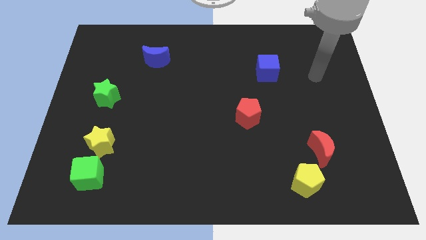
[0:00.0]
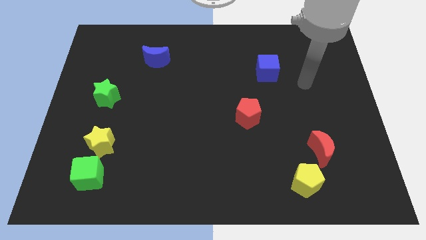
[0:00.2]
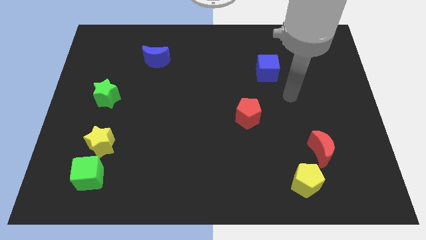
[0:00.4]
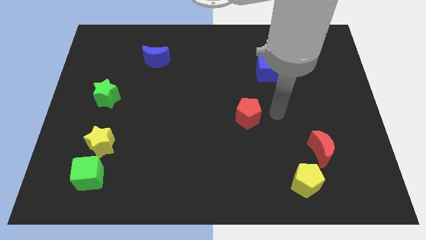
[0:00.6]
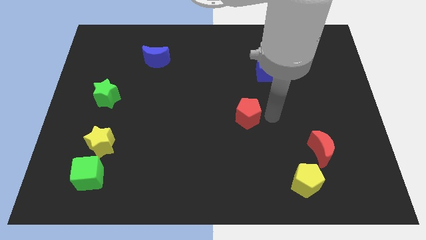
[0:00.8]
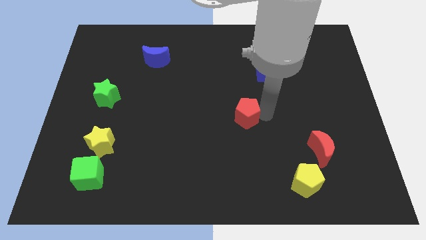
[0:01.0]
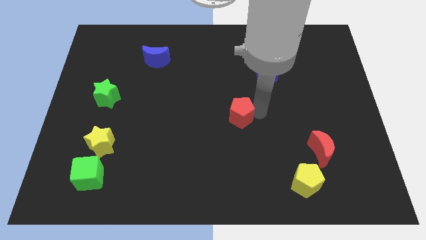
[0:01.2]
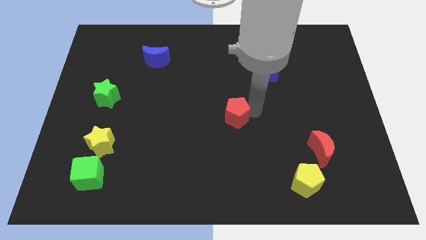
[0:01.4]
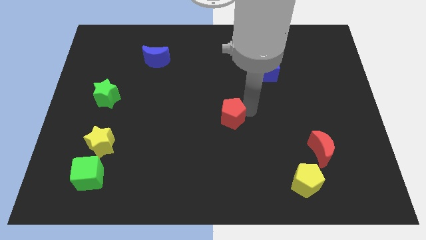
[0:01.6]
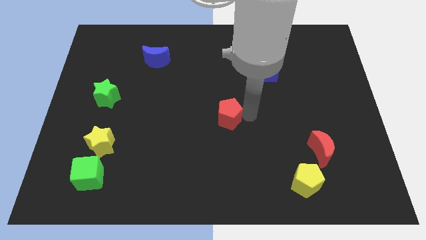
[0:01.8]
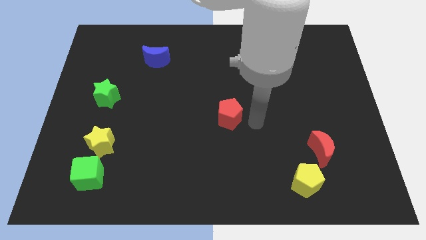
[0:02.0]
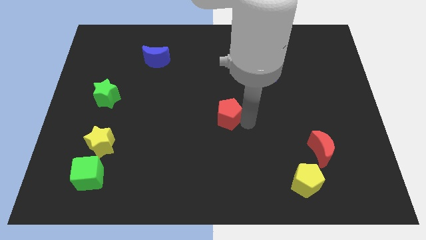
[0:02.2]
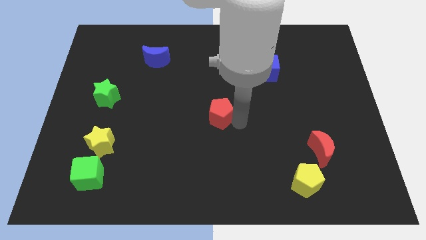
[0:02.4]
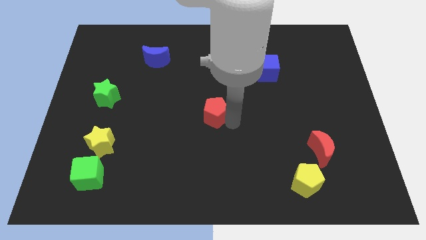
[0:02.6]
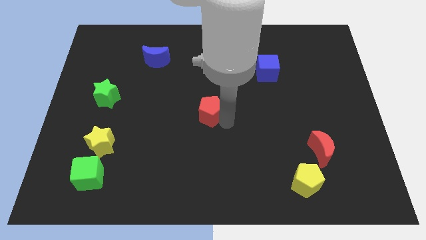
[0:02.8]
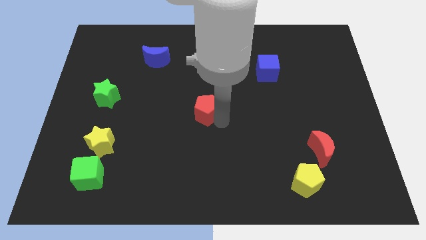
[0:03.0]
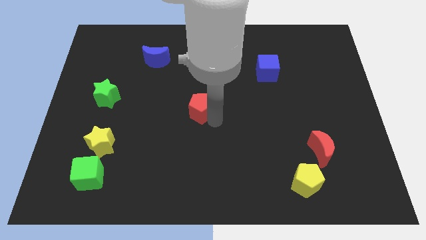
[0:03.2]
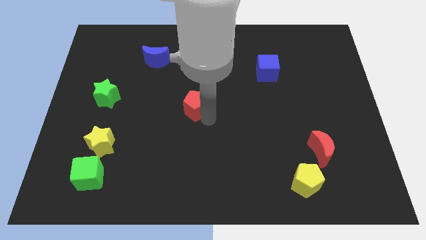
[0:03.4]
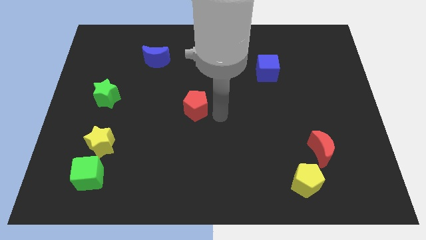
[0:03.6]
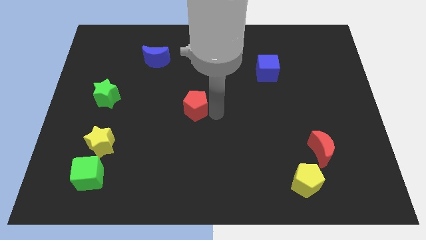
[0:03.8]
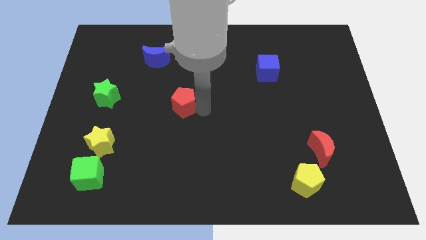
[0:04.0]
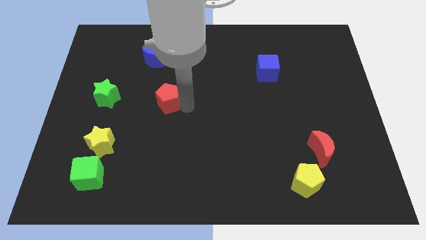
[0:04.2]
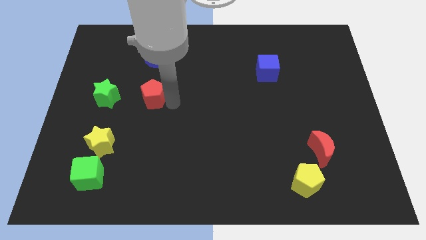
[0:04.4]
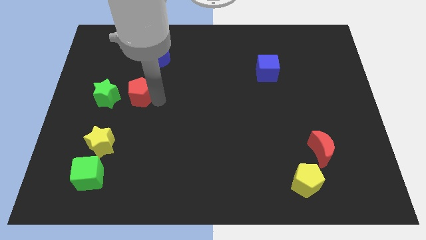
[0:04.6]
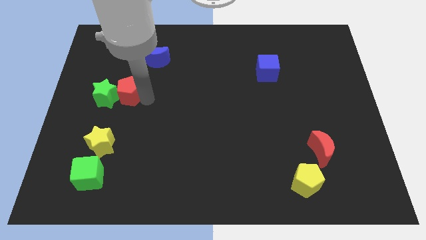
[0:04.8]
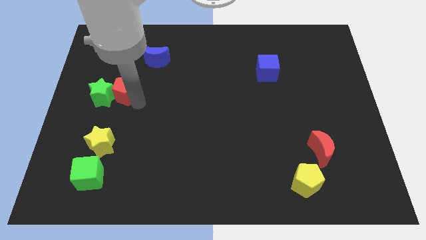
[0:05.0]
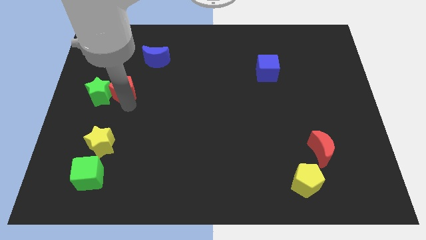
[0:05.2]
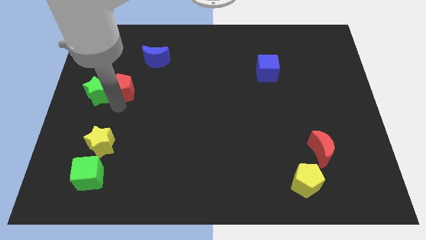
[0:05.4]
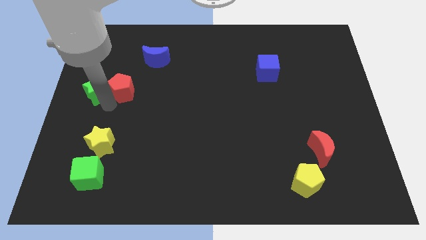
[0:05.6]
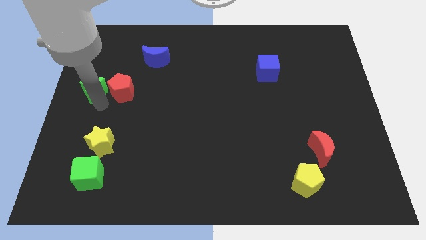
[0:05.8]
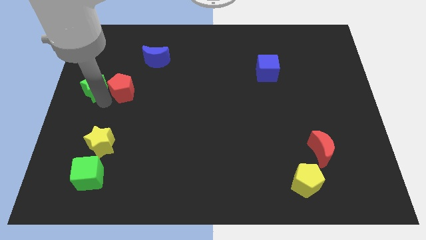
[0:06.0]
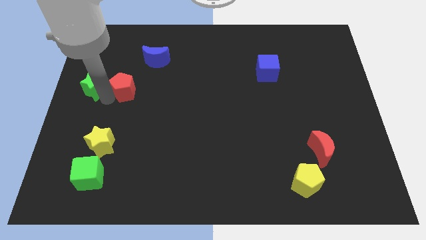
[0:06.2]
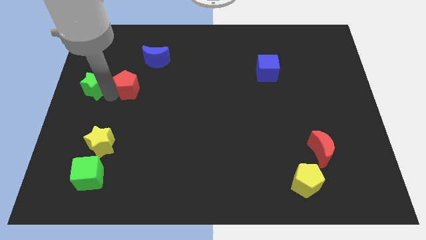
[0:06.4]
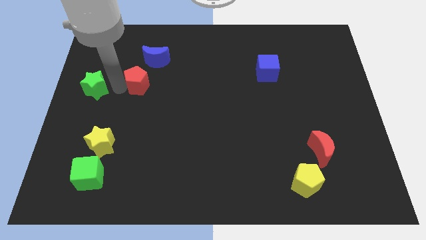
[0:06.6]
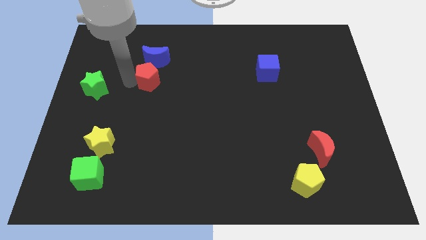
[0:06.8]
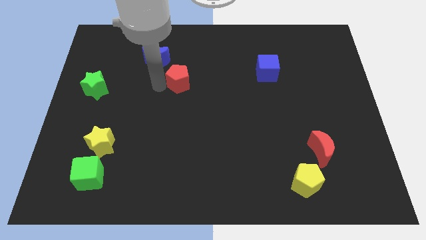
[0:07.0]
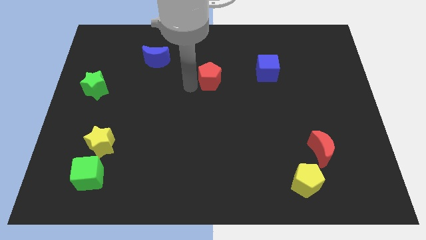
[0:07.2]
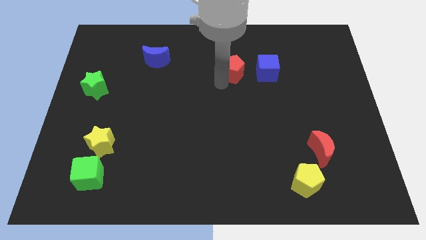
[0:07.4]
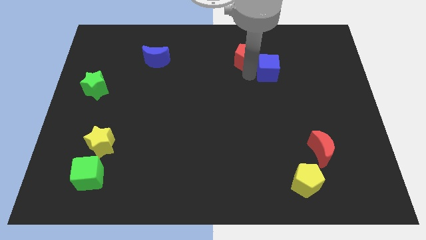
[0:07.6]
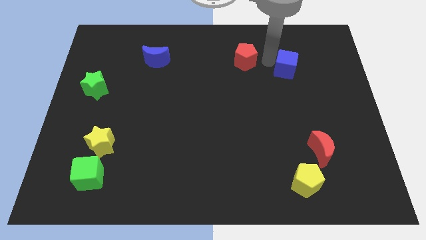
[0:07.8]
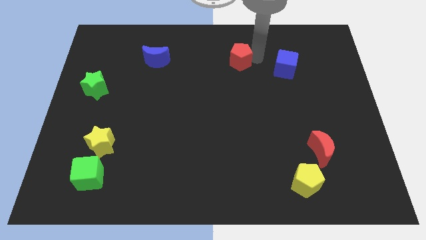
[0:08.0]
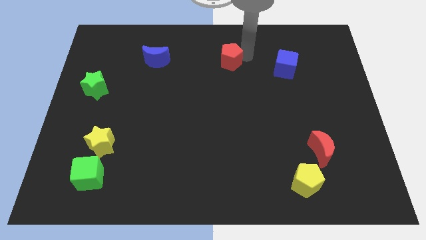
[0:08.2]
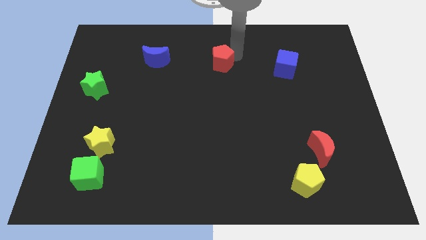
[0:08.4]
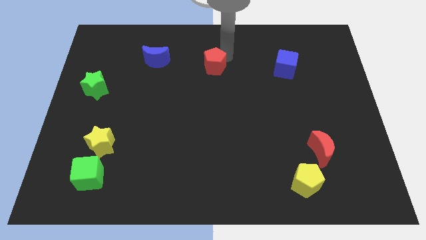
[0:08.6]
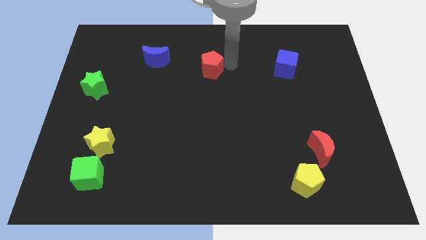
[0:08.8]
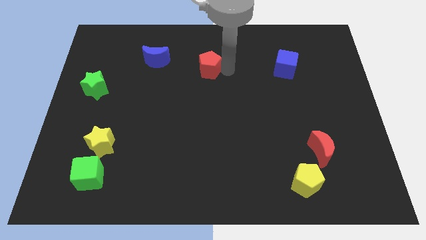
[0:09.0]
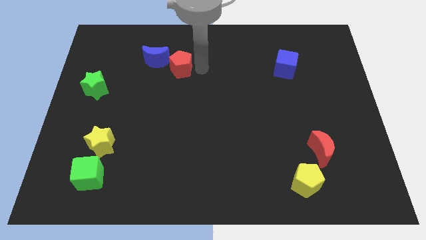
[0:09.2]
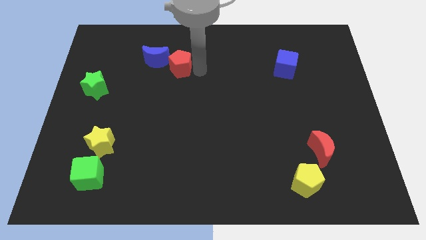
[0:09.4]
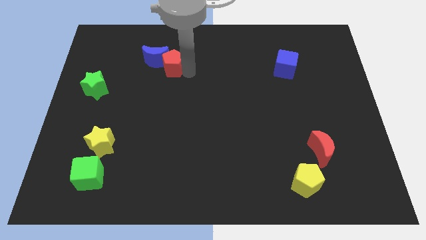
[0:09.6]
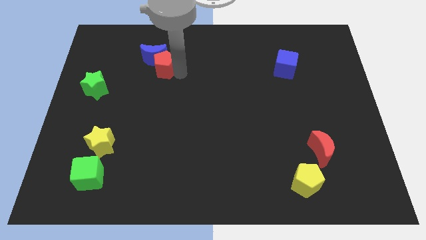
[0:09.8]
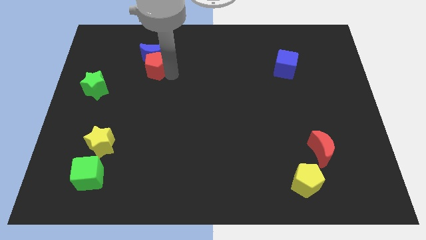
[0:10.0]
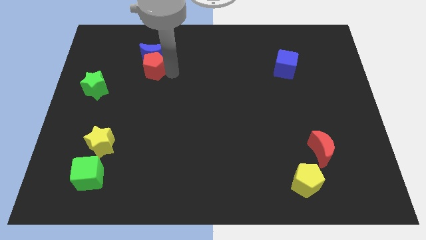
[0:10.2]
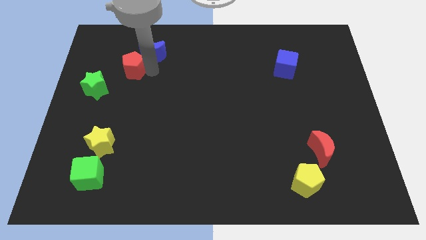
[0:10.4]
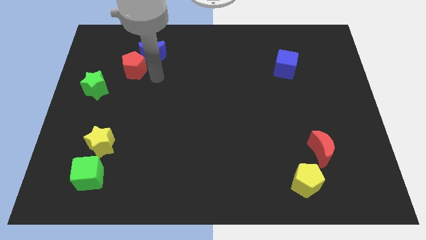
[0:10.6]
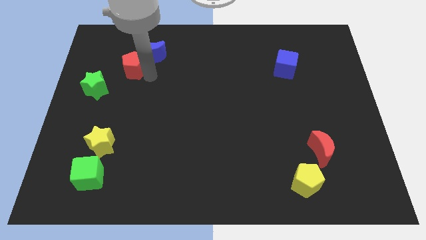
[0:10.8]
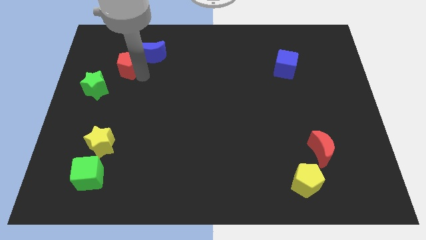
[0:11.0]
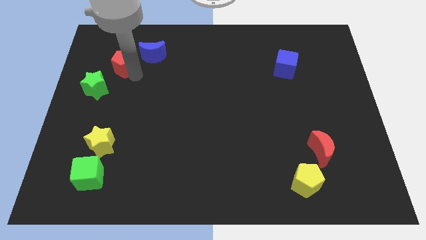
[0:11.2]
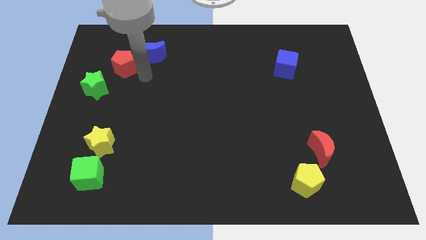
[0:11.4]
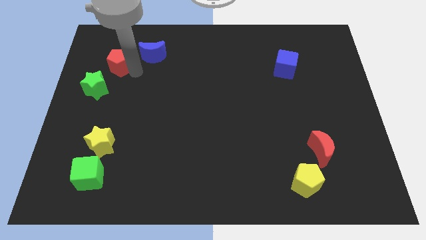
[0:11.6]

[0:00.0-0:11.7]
push the red pentagon to the top of the green star

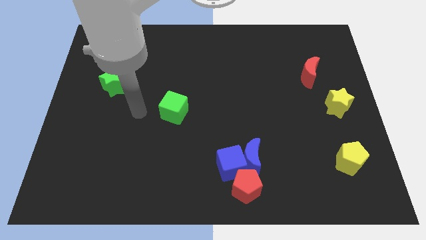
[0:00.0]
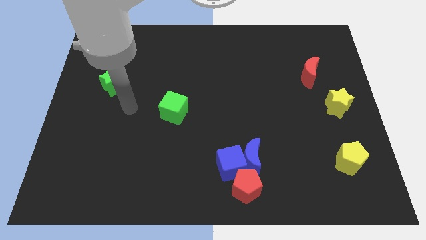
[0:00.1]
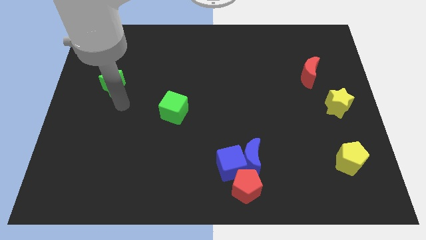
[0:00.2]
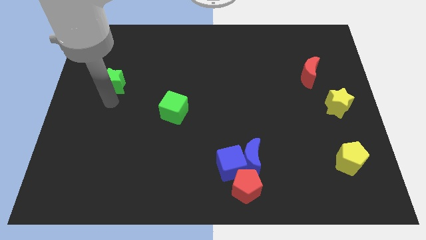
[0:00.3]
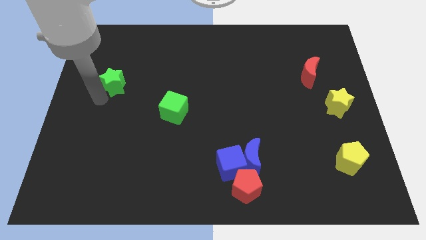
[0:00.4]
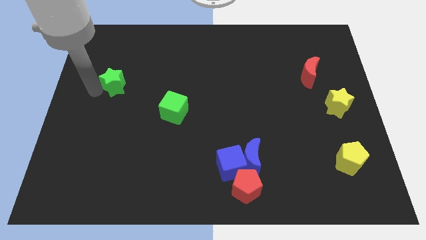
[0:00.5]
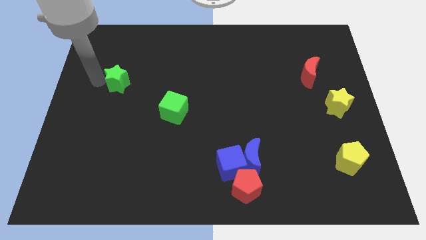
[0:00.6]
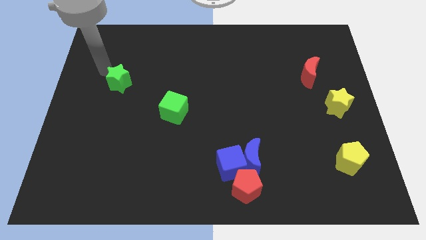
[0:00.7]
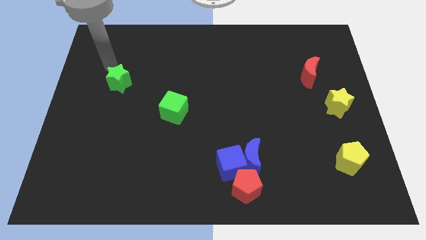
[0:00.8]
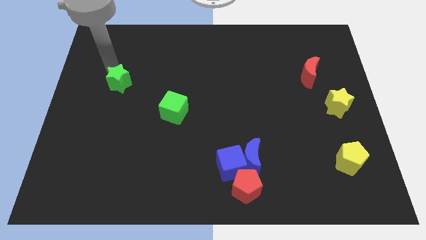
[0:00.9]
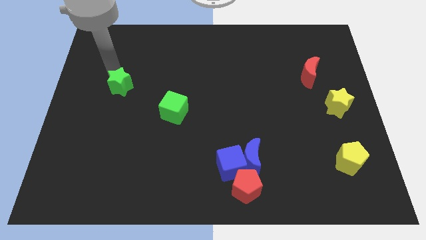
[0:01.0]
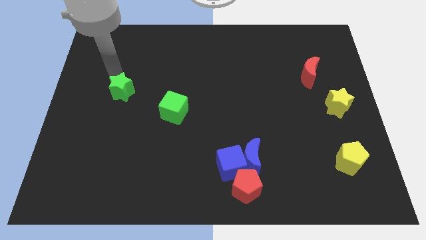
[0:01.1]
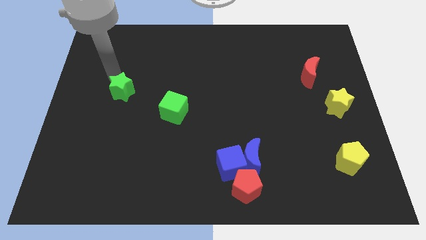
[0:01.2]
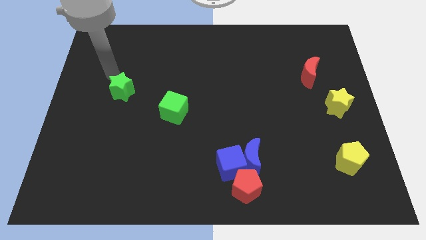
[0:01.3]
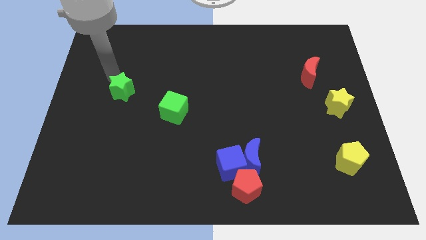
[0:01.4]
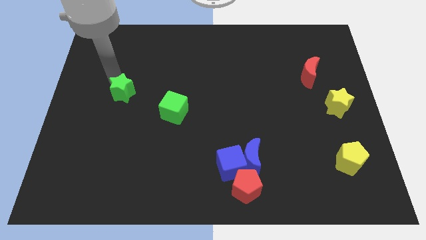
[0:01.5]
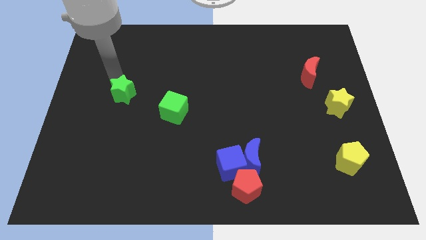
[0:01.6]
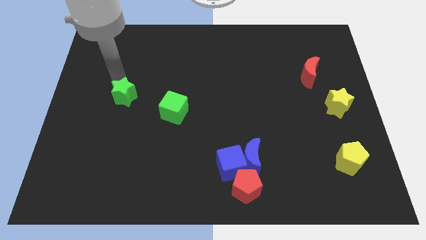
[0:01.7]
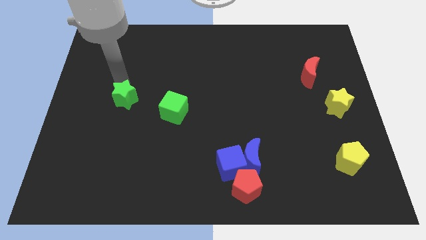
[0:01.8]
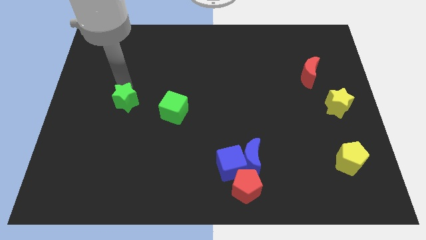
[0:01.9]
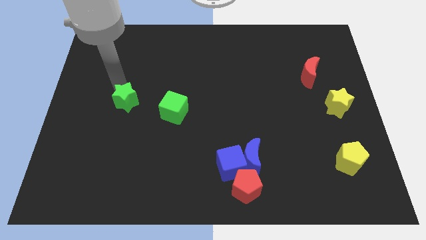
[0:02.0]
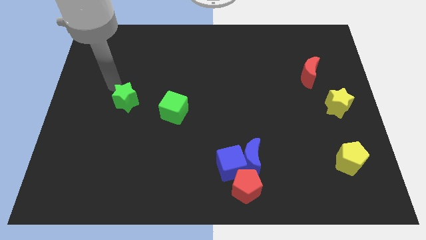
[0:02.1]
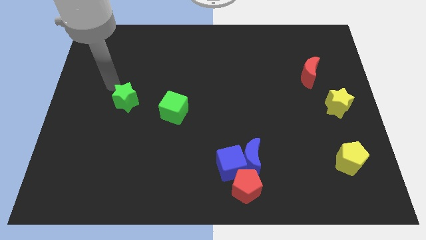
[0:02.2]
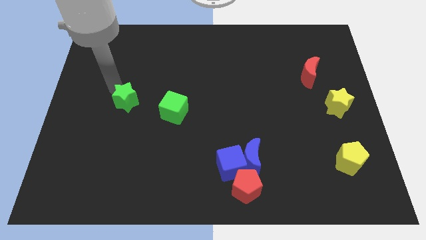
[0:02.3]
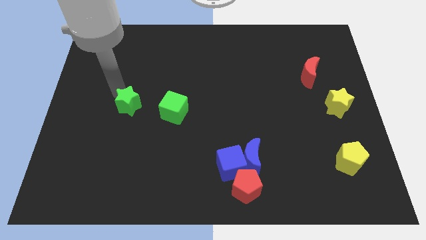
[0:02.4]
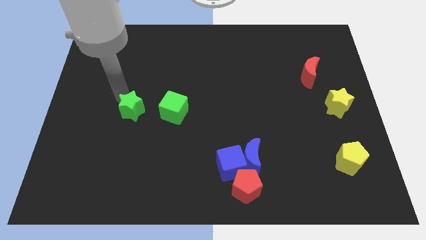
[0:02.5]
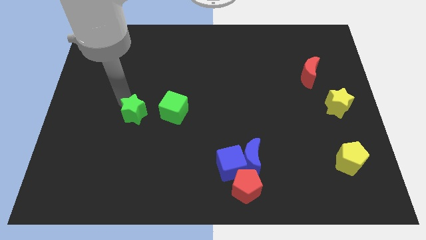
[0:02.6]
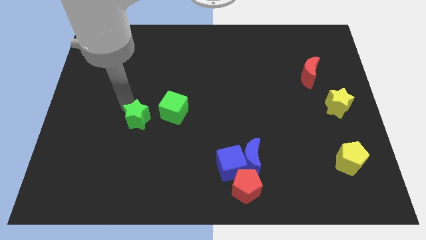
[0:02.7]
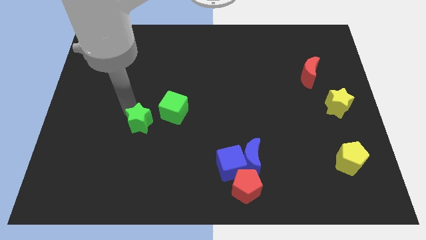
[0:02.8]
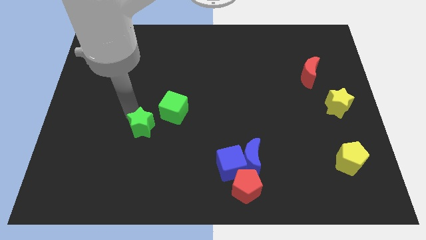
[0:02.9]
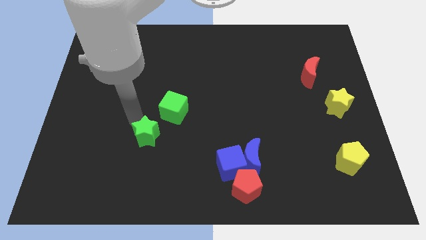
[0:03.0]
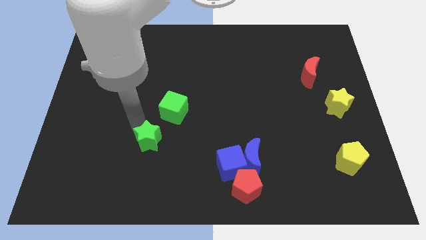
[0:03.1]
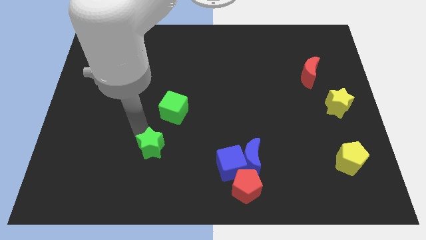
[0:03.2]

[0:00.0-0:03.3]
put the green star below the green cube
